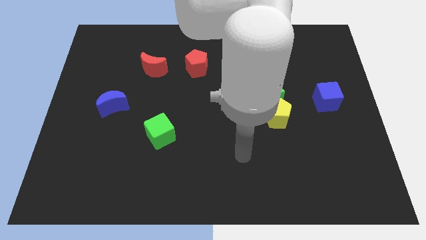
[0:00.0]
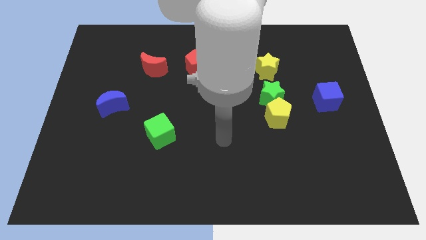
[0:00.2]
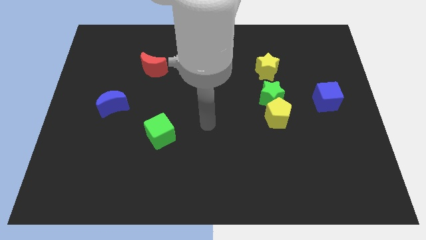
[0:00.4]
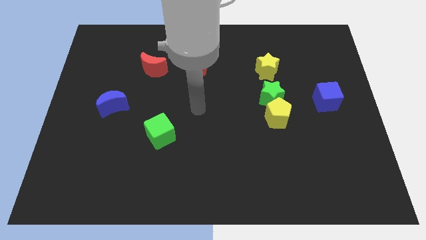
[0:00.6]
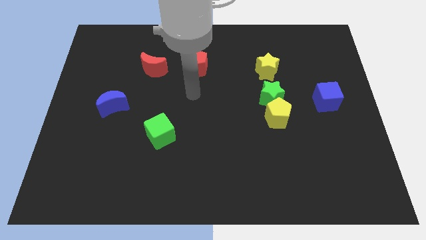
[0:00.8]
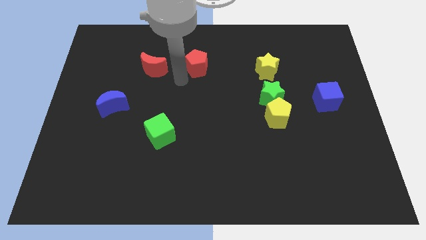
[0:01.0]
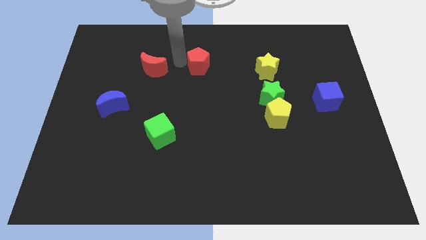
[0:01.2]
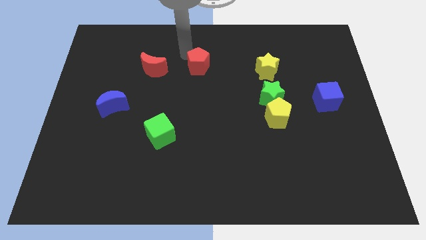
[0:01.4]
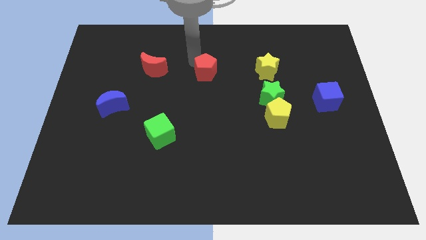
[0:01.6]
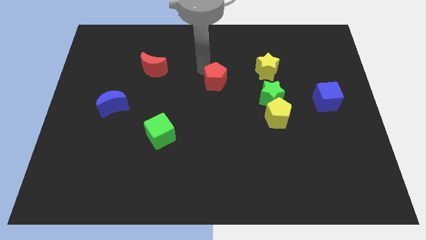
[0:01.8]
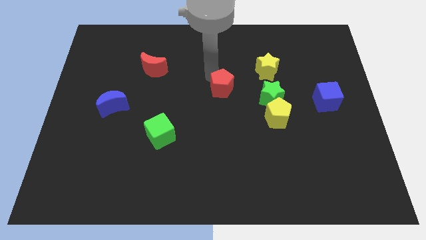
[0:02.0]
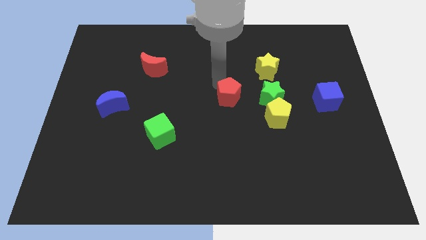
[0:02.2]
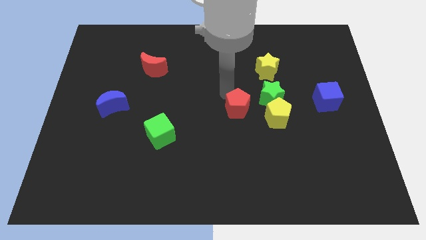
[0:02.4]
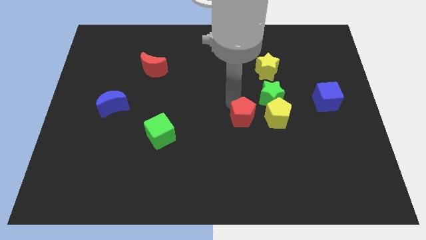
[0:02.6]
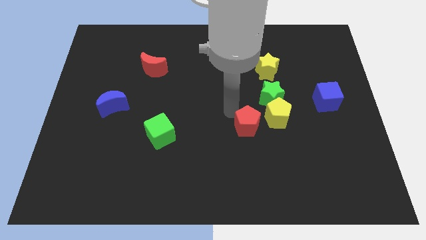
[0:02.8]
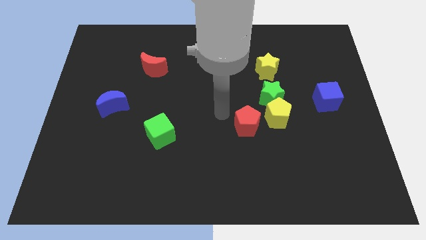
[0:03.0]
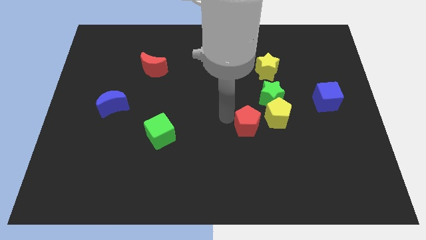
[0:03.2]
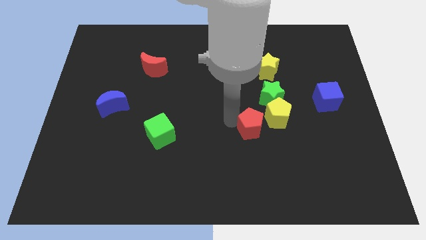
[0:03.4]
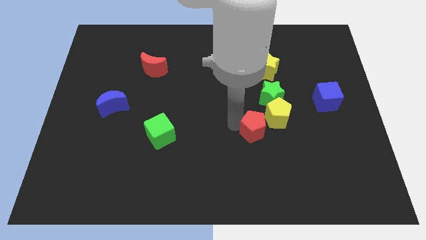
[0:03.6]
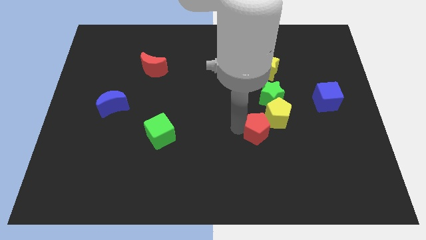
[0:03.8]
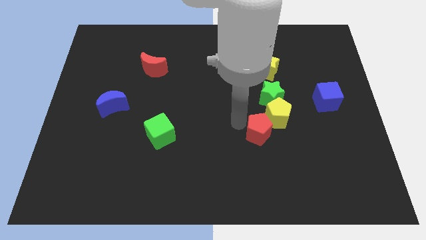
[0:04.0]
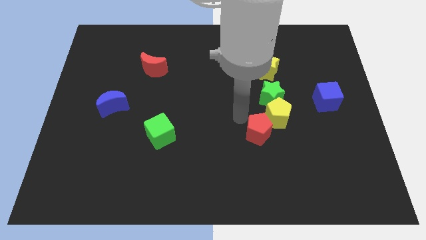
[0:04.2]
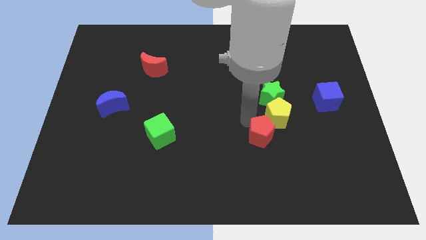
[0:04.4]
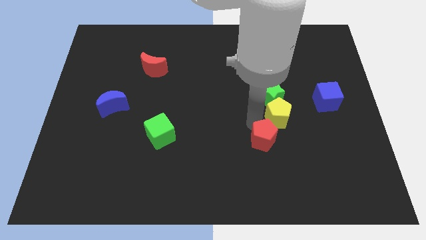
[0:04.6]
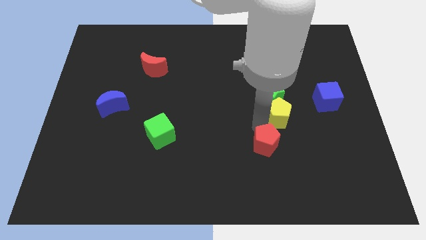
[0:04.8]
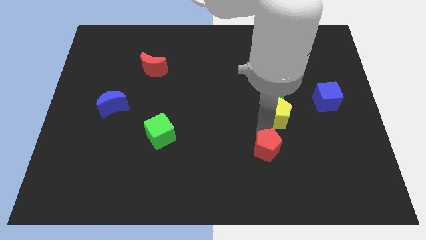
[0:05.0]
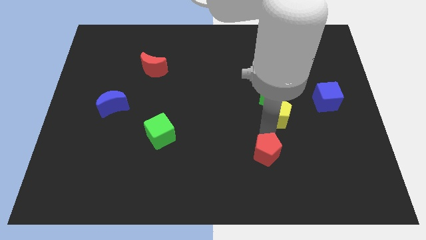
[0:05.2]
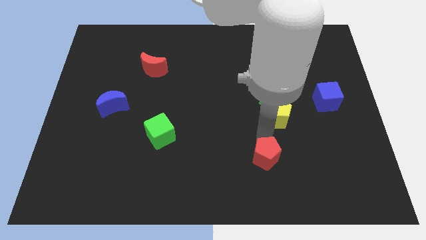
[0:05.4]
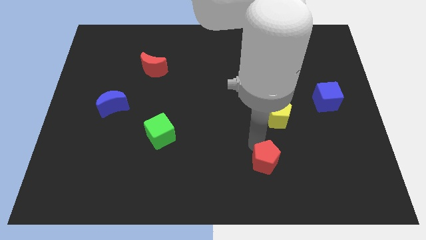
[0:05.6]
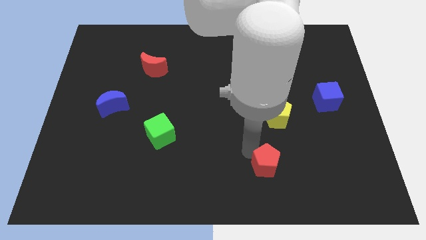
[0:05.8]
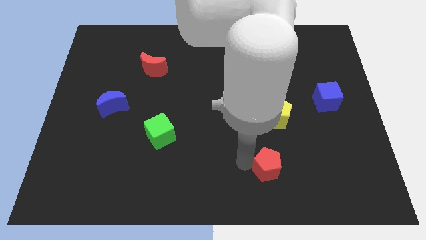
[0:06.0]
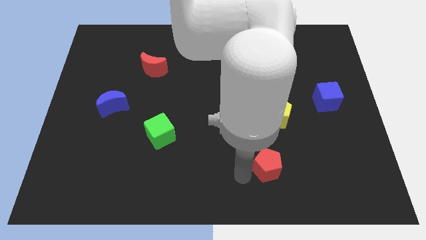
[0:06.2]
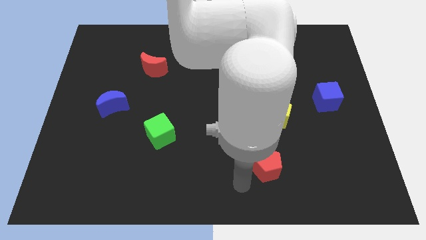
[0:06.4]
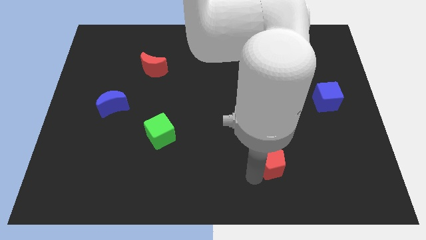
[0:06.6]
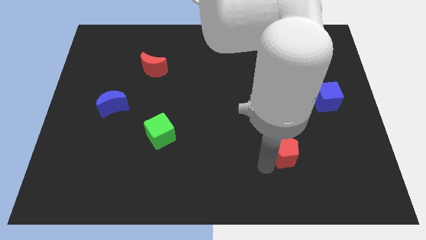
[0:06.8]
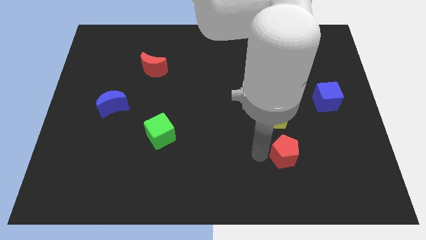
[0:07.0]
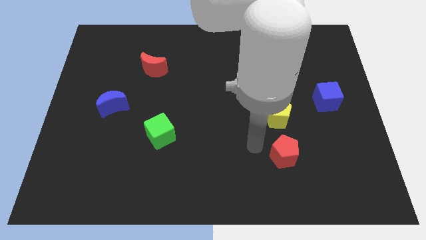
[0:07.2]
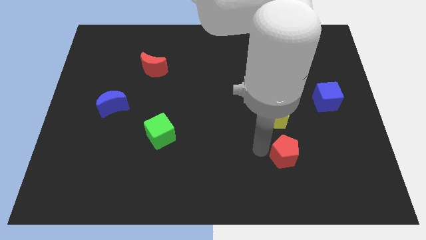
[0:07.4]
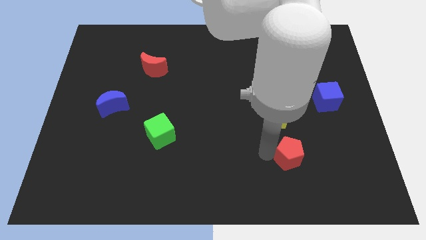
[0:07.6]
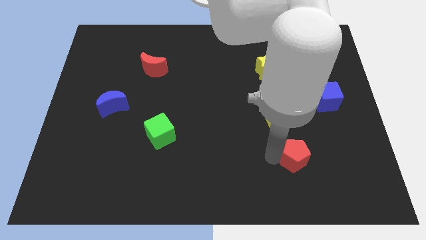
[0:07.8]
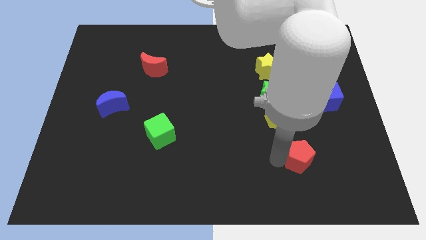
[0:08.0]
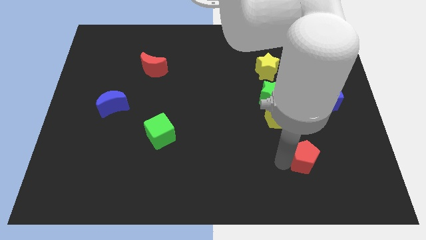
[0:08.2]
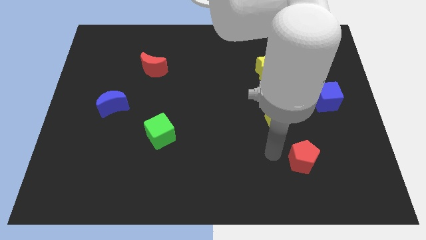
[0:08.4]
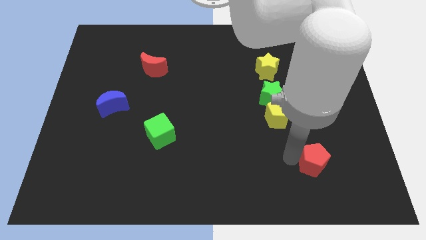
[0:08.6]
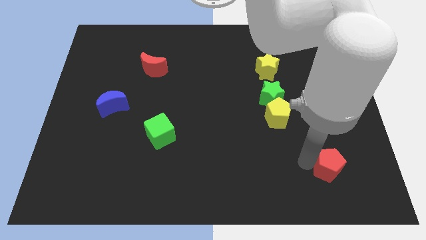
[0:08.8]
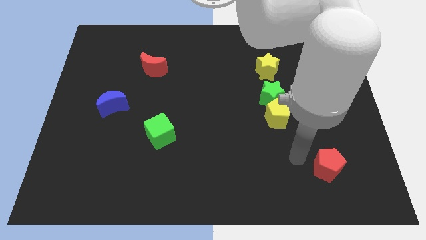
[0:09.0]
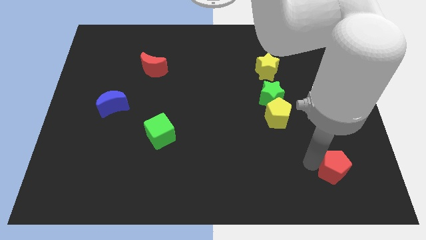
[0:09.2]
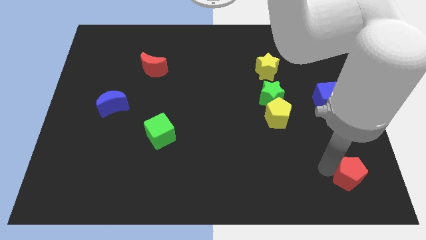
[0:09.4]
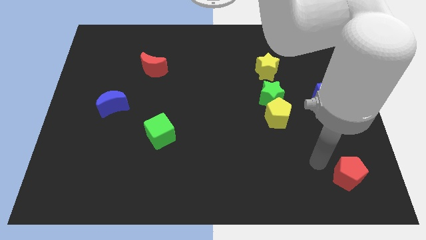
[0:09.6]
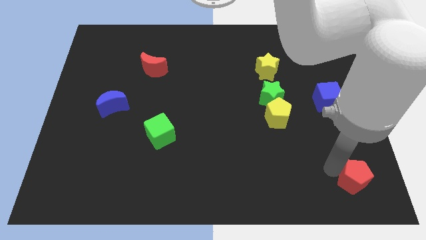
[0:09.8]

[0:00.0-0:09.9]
push the red pentagon to the bottom right corner

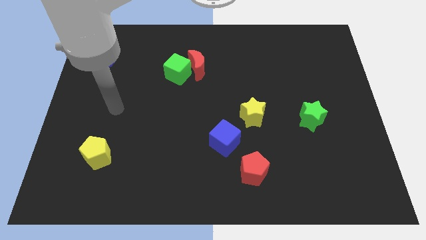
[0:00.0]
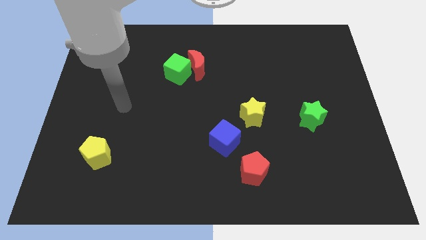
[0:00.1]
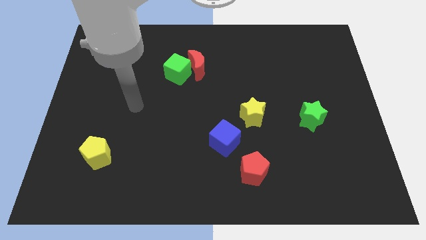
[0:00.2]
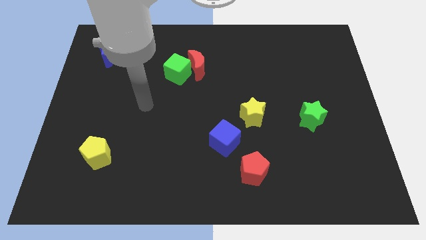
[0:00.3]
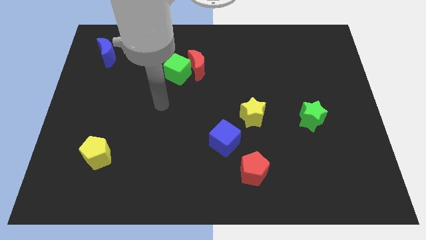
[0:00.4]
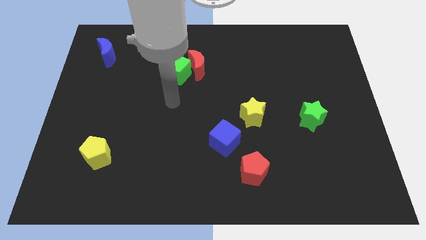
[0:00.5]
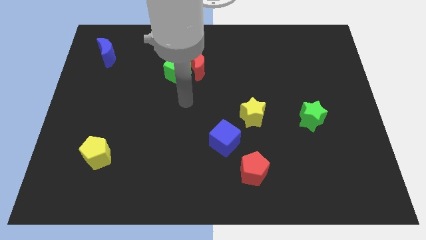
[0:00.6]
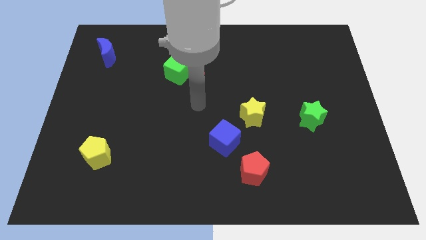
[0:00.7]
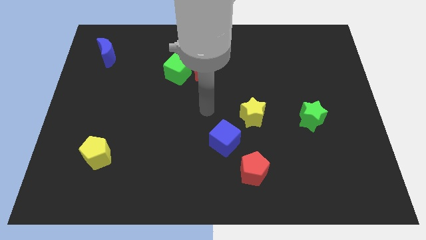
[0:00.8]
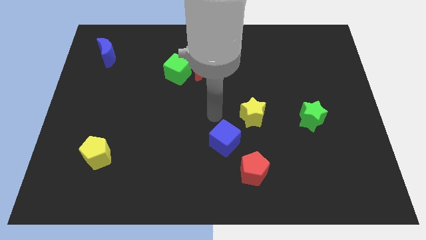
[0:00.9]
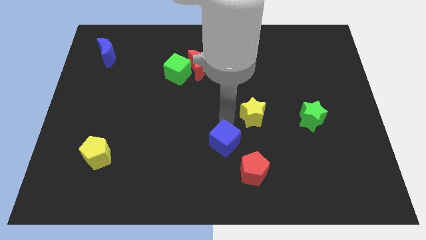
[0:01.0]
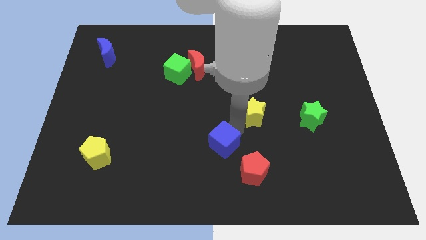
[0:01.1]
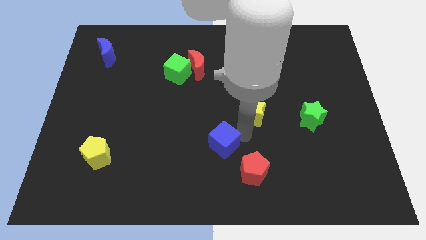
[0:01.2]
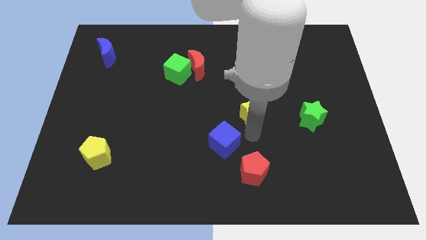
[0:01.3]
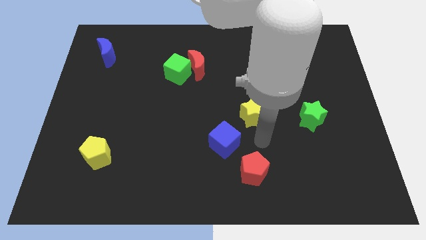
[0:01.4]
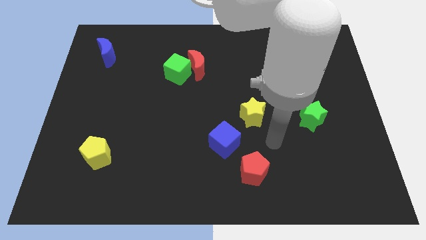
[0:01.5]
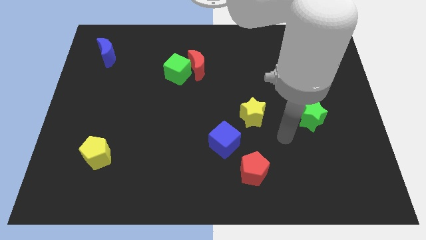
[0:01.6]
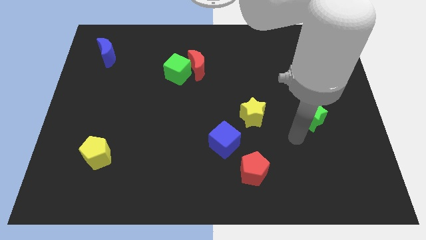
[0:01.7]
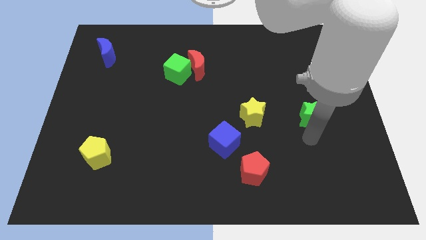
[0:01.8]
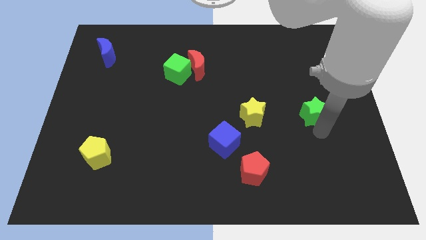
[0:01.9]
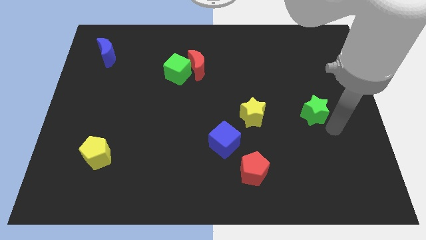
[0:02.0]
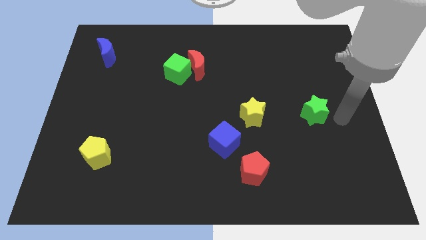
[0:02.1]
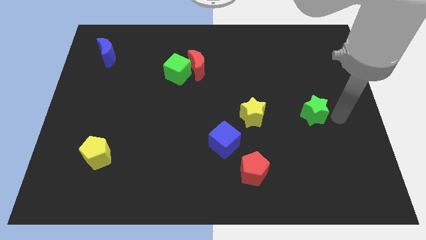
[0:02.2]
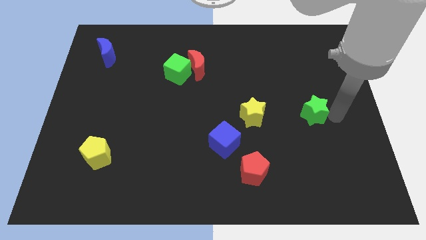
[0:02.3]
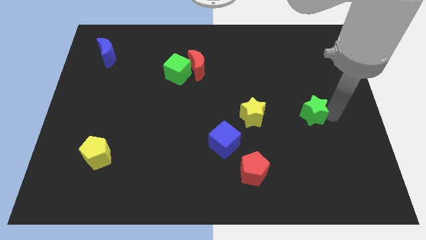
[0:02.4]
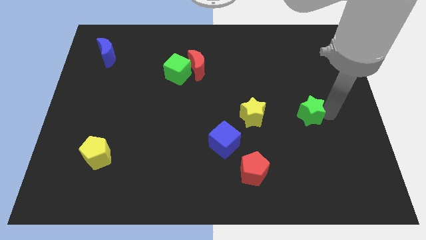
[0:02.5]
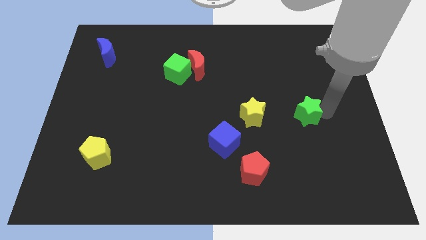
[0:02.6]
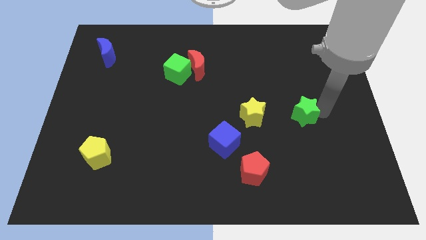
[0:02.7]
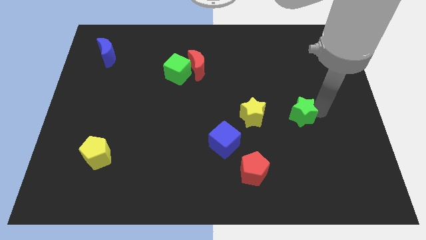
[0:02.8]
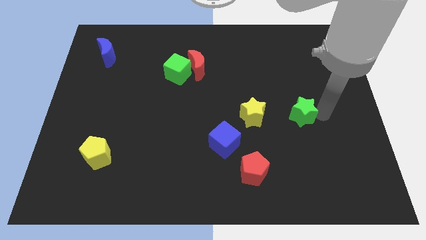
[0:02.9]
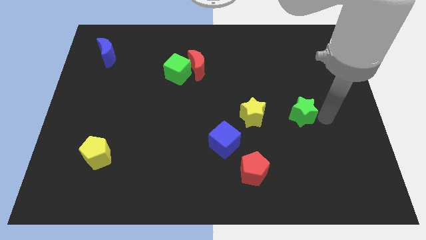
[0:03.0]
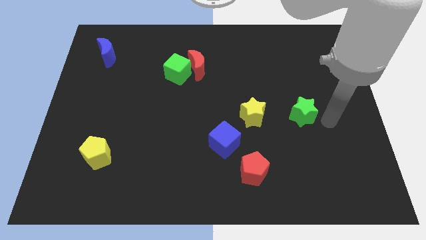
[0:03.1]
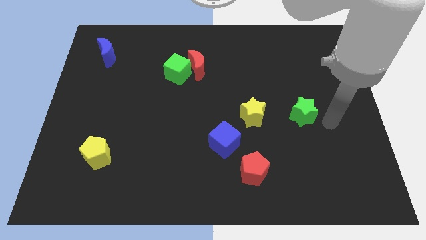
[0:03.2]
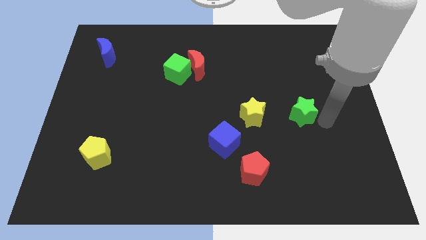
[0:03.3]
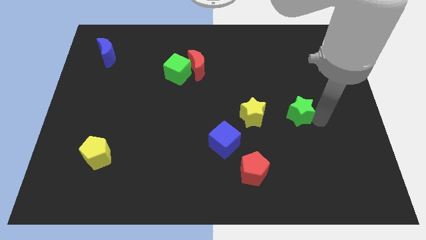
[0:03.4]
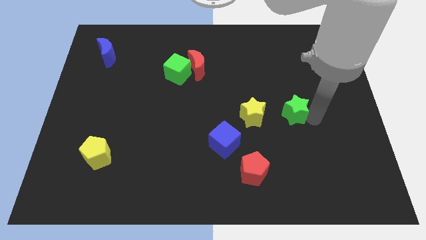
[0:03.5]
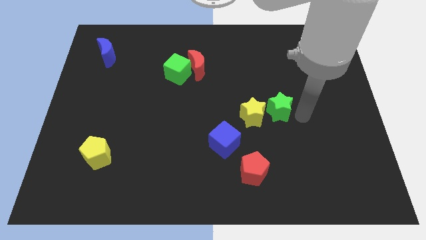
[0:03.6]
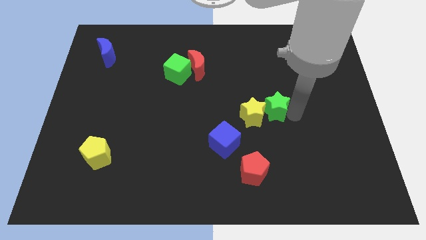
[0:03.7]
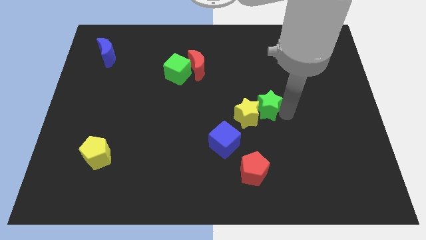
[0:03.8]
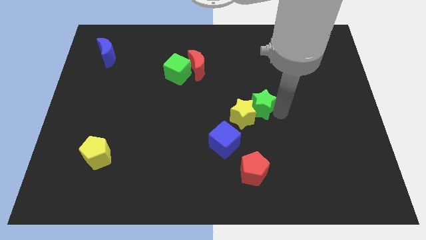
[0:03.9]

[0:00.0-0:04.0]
push the green star to the center
